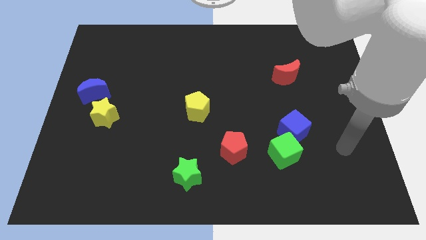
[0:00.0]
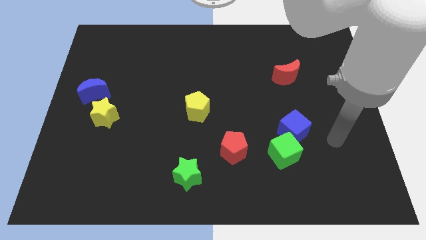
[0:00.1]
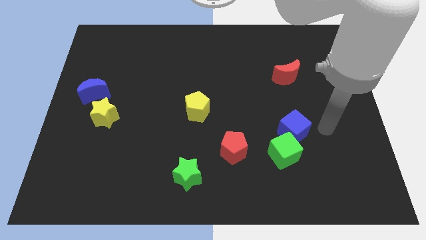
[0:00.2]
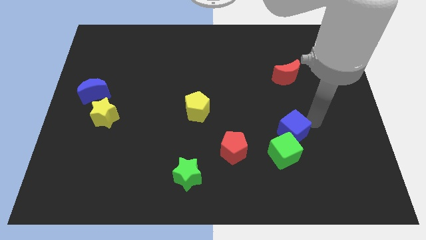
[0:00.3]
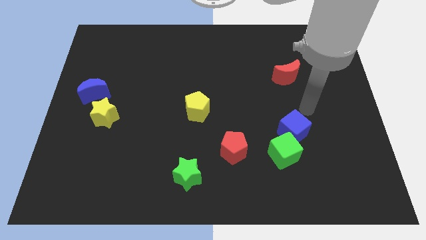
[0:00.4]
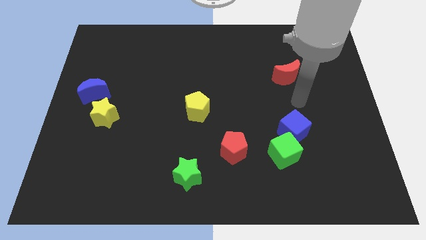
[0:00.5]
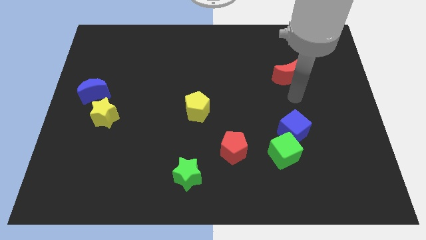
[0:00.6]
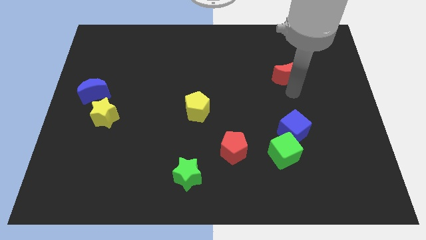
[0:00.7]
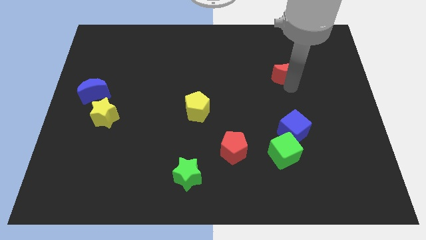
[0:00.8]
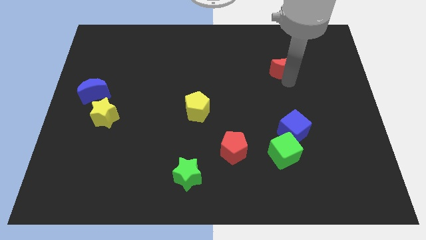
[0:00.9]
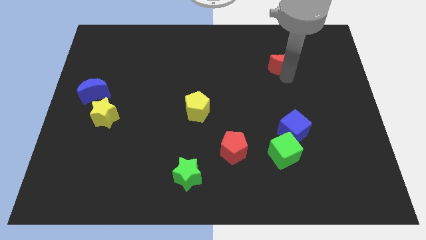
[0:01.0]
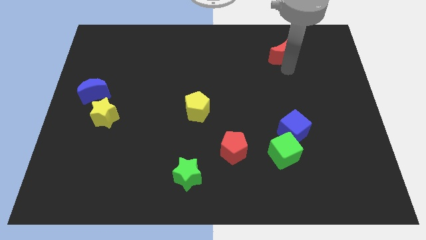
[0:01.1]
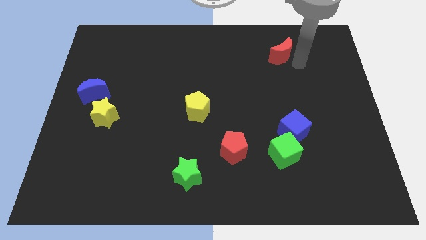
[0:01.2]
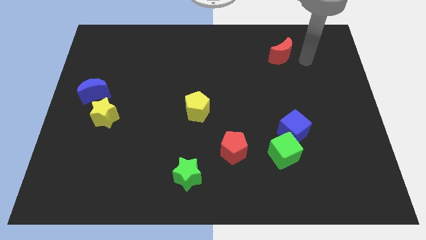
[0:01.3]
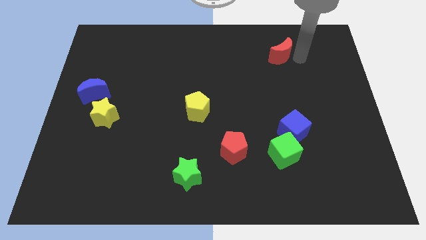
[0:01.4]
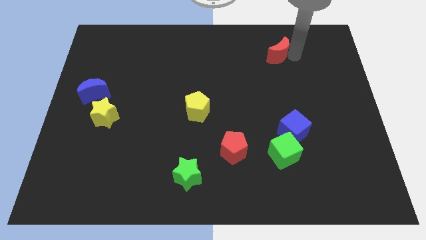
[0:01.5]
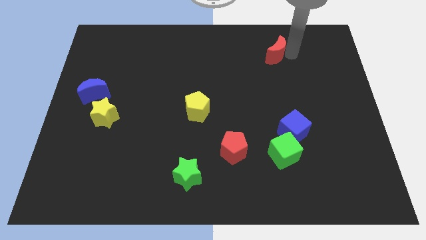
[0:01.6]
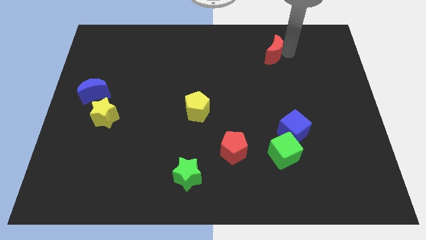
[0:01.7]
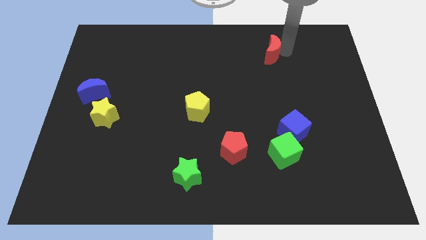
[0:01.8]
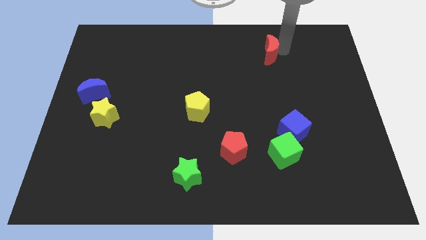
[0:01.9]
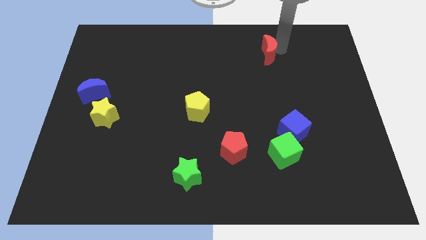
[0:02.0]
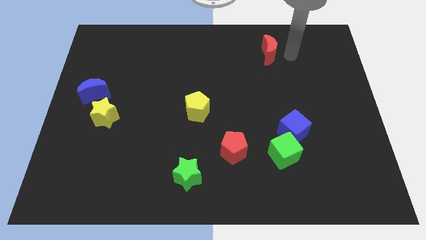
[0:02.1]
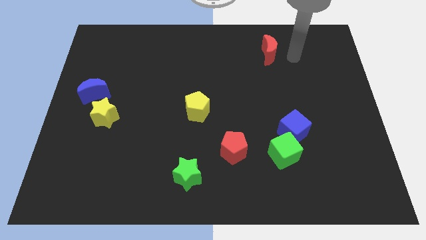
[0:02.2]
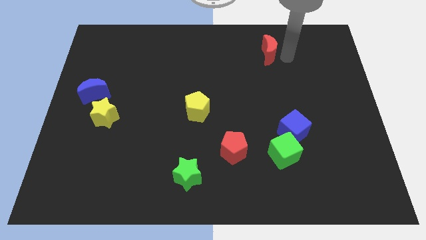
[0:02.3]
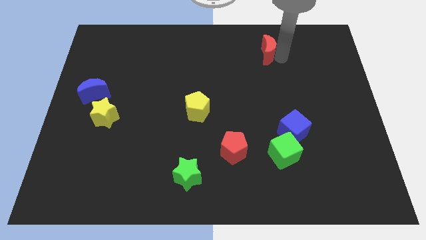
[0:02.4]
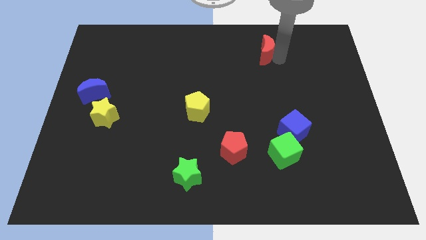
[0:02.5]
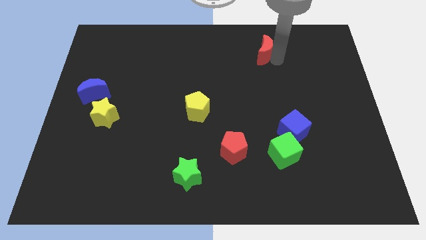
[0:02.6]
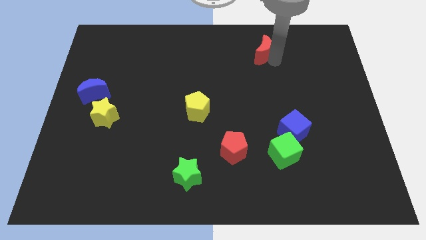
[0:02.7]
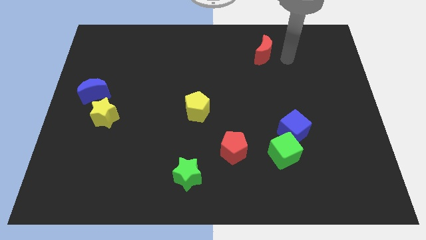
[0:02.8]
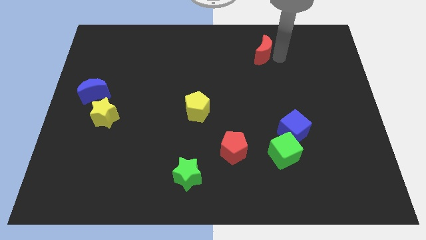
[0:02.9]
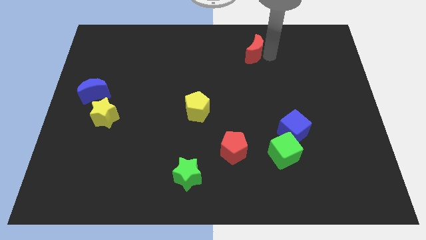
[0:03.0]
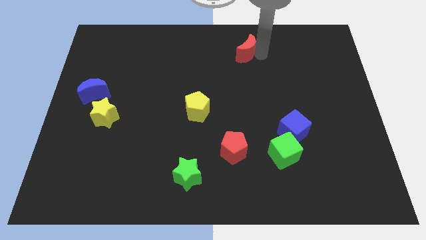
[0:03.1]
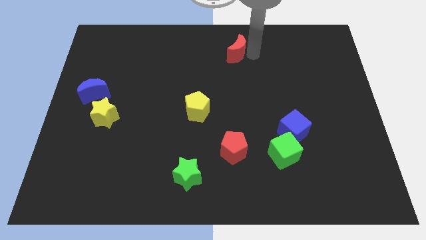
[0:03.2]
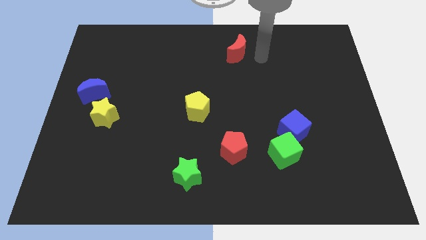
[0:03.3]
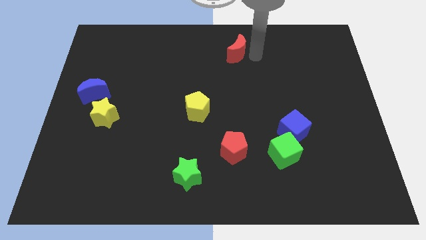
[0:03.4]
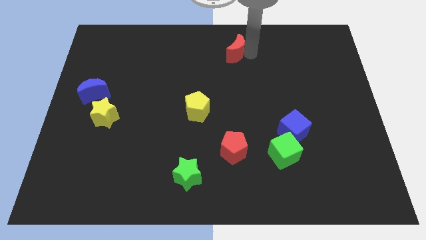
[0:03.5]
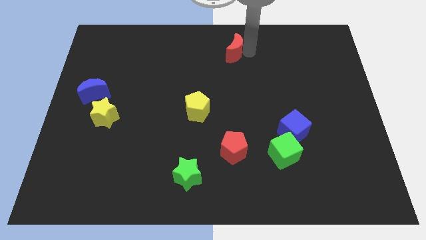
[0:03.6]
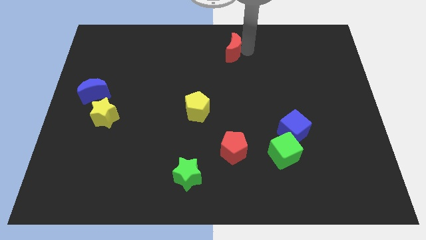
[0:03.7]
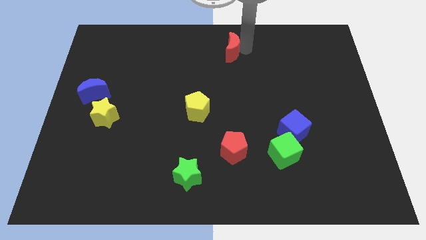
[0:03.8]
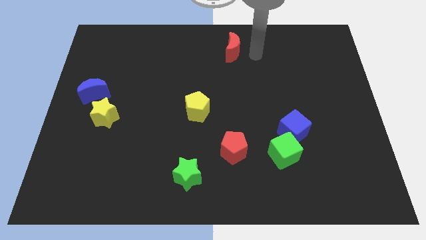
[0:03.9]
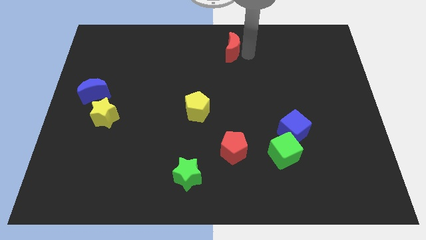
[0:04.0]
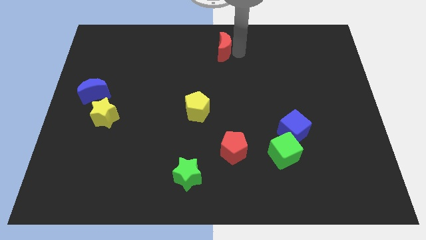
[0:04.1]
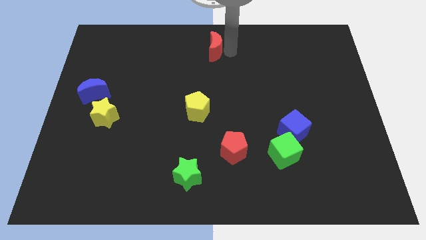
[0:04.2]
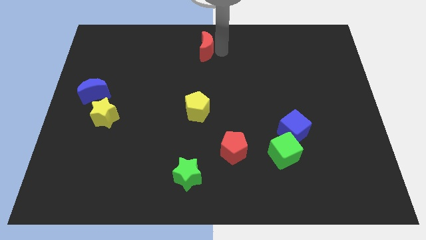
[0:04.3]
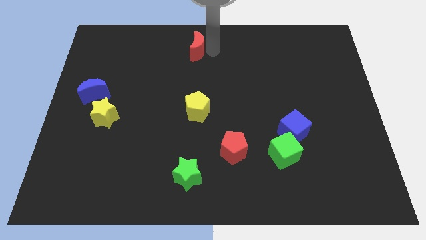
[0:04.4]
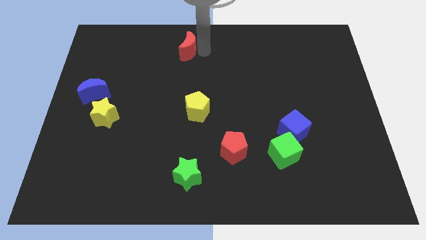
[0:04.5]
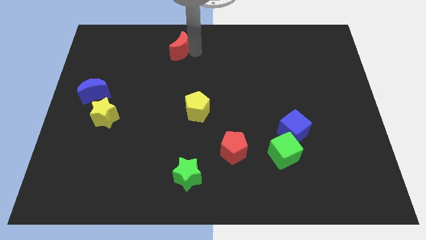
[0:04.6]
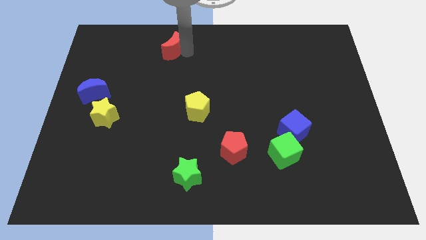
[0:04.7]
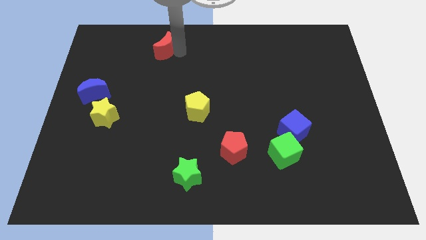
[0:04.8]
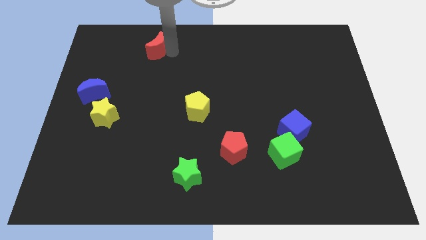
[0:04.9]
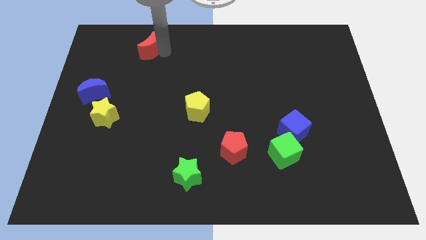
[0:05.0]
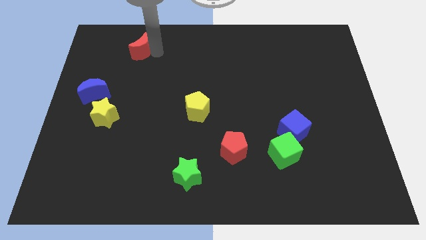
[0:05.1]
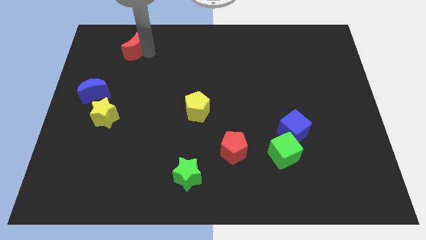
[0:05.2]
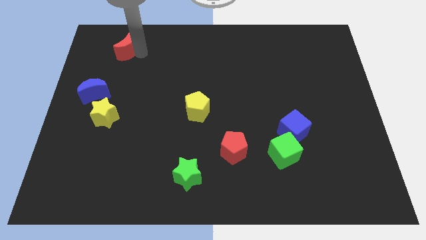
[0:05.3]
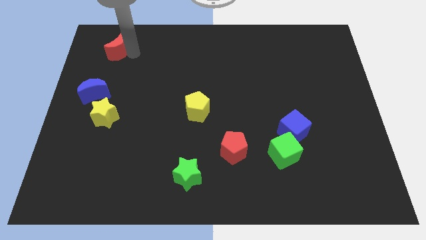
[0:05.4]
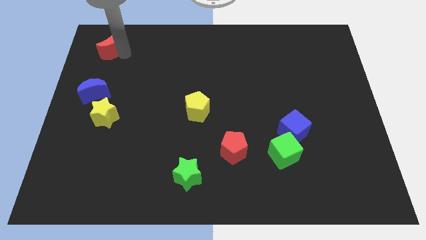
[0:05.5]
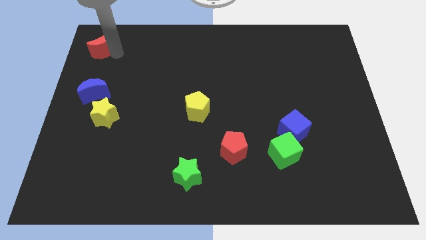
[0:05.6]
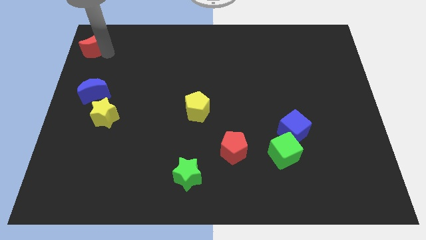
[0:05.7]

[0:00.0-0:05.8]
slide the red moon to the top left corner
